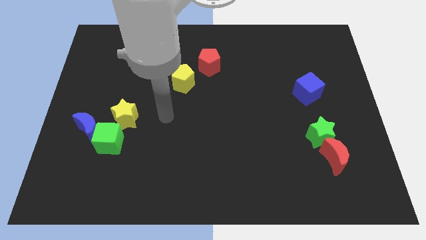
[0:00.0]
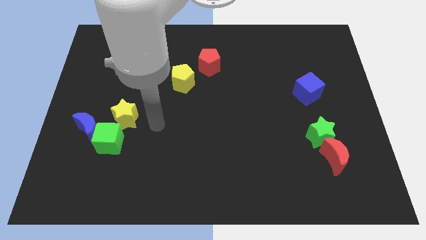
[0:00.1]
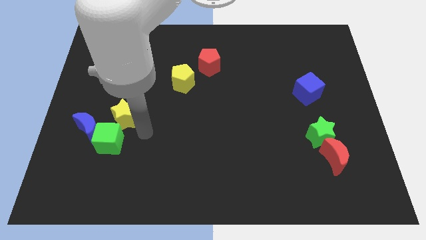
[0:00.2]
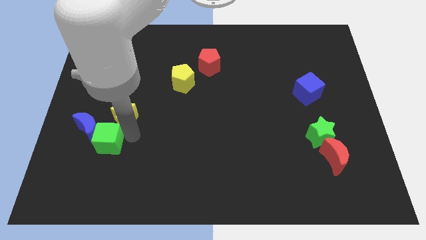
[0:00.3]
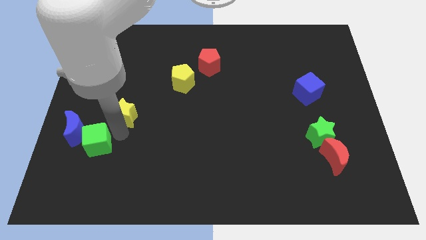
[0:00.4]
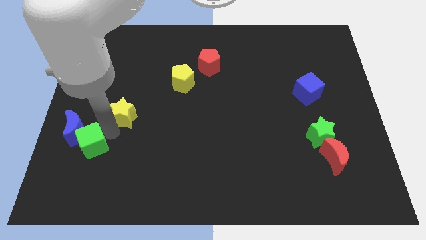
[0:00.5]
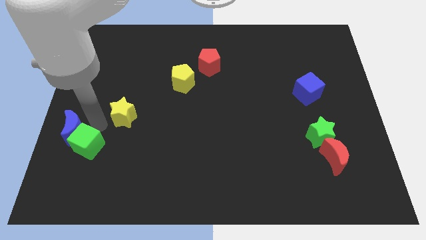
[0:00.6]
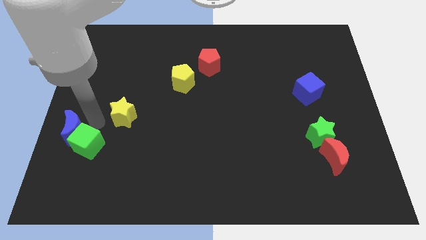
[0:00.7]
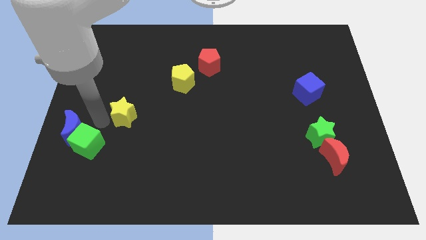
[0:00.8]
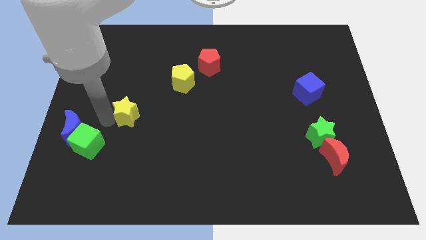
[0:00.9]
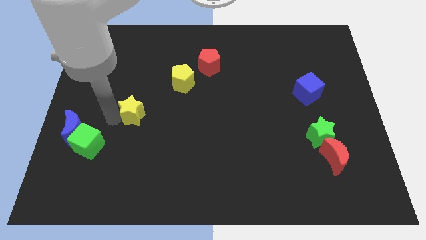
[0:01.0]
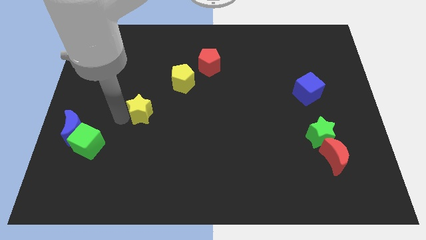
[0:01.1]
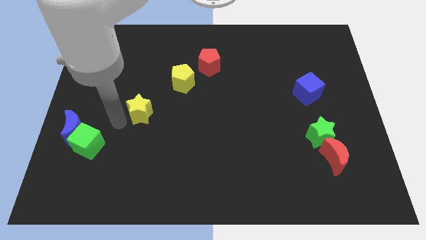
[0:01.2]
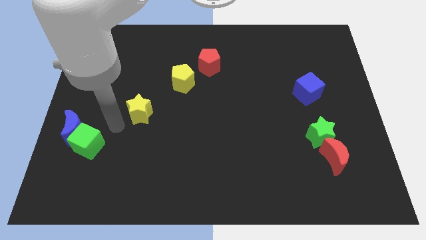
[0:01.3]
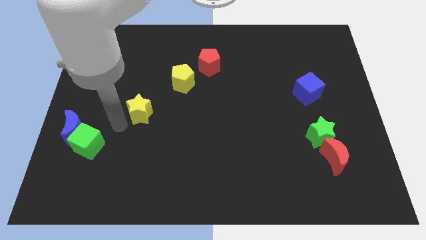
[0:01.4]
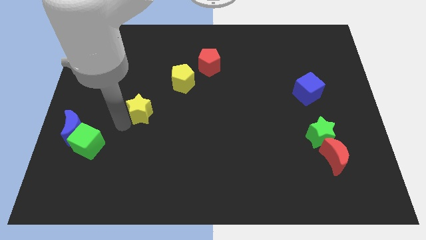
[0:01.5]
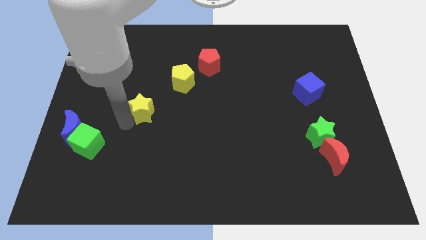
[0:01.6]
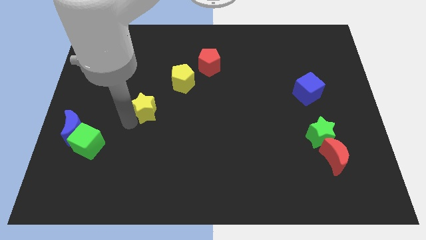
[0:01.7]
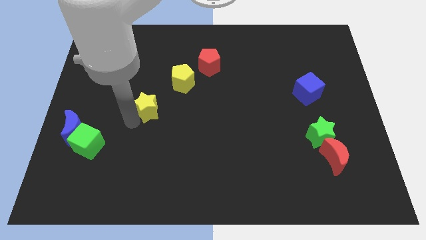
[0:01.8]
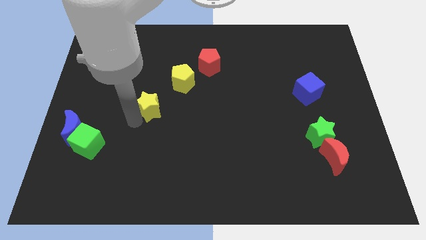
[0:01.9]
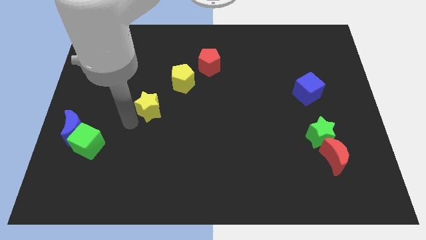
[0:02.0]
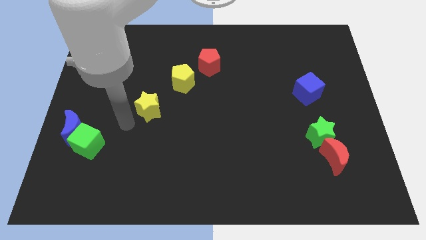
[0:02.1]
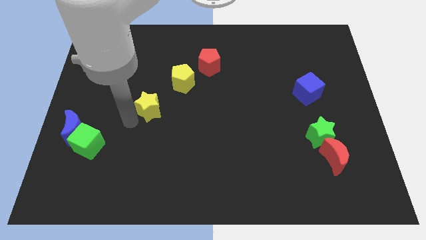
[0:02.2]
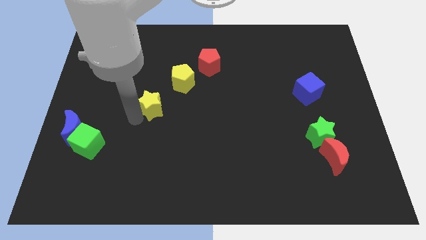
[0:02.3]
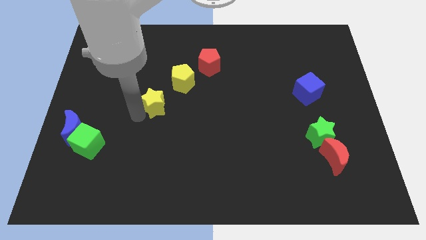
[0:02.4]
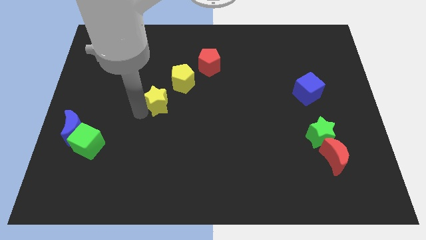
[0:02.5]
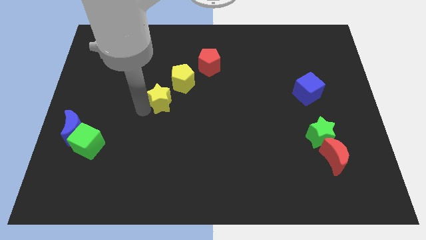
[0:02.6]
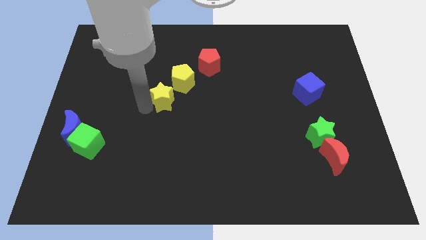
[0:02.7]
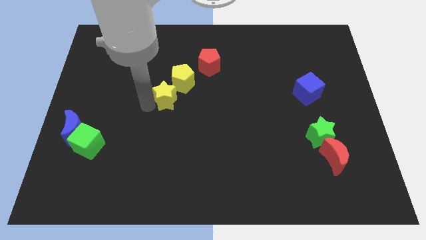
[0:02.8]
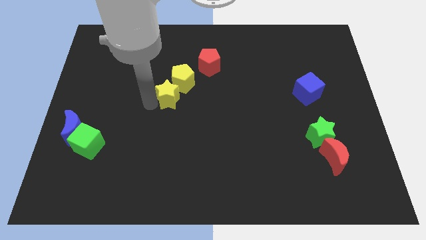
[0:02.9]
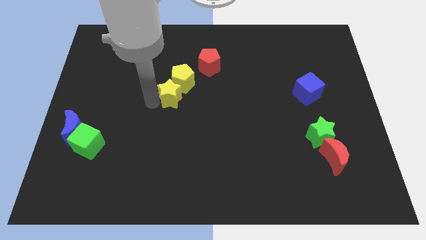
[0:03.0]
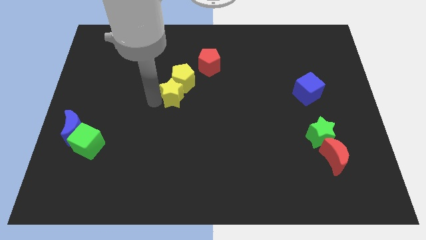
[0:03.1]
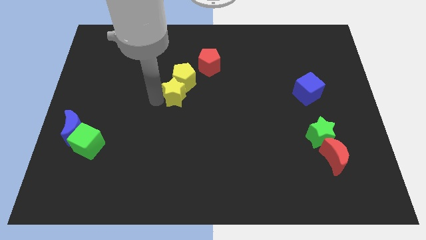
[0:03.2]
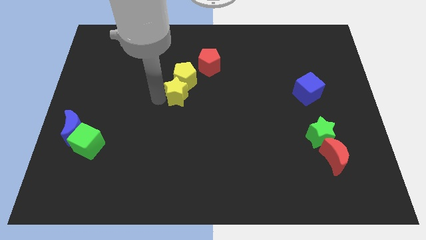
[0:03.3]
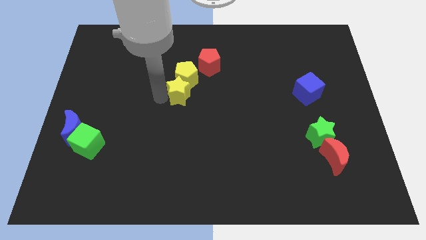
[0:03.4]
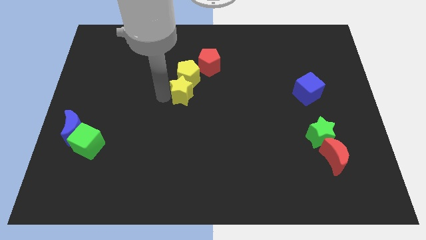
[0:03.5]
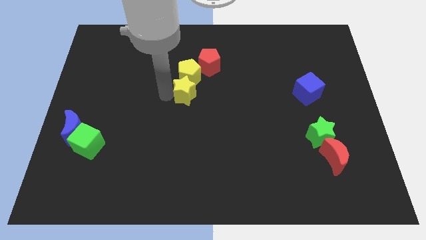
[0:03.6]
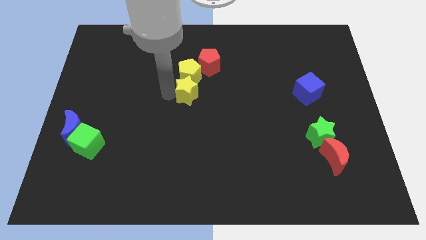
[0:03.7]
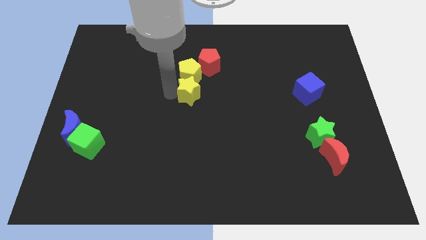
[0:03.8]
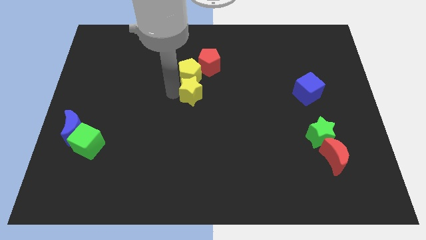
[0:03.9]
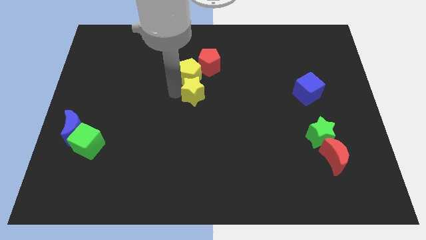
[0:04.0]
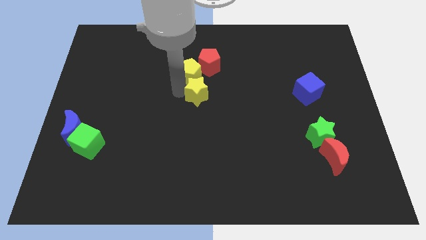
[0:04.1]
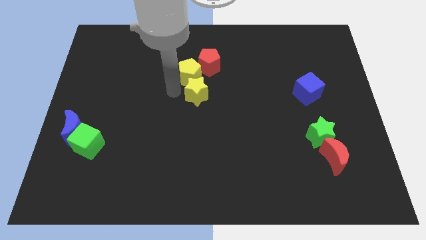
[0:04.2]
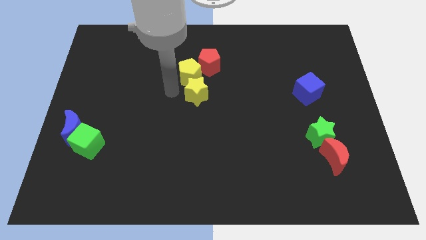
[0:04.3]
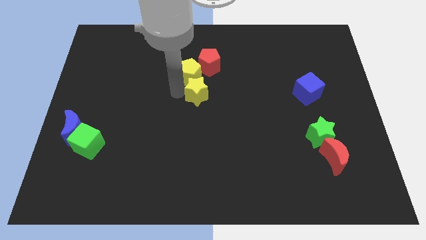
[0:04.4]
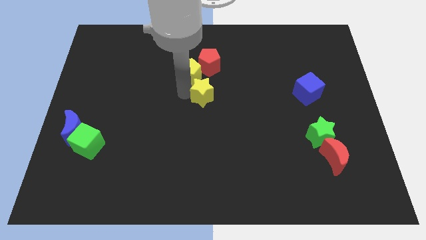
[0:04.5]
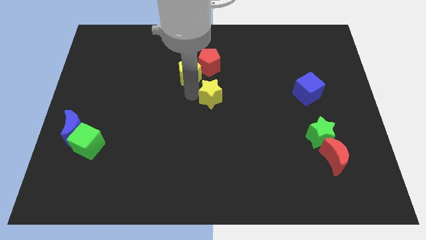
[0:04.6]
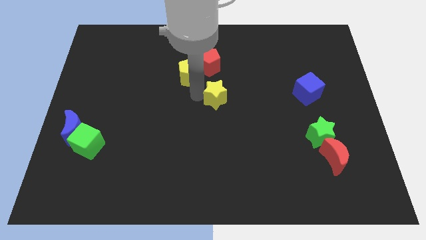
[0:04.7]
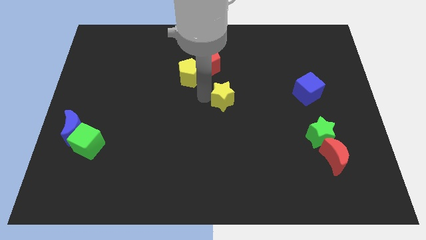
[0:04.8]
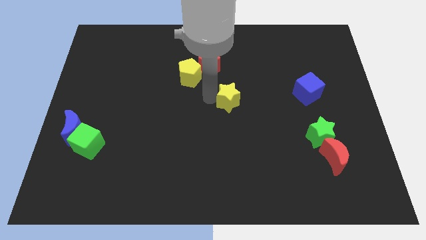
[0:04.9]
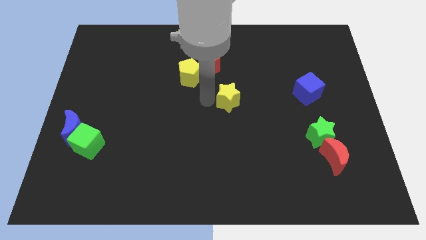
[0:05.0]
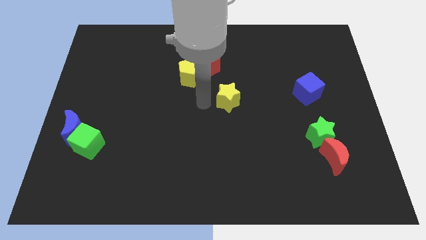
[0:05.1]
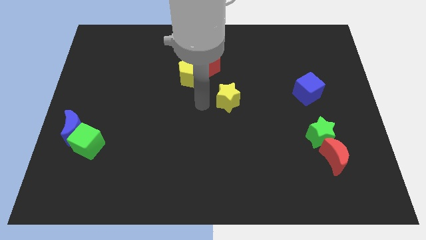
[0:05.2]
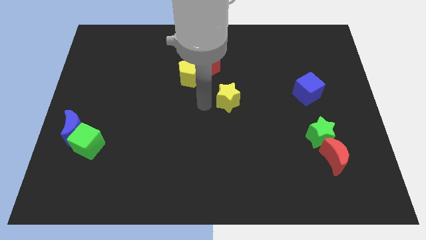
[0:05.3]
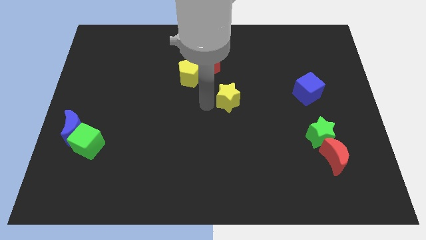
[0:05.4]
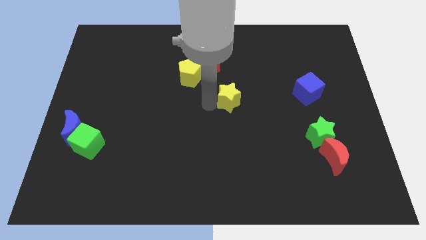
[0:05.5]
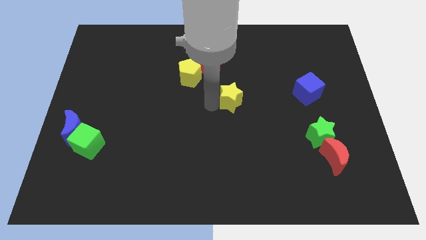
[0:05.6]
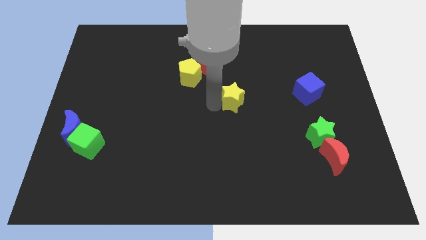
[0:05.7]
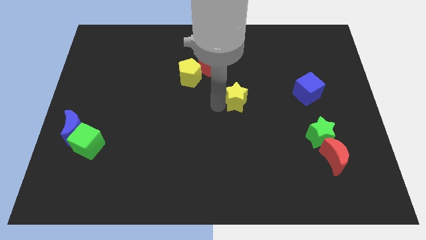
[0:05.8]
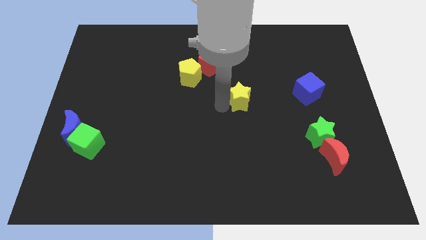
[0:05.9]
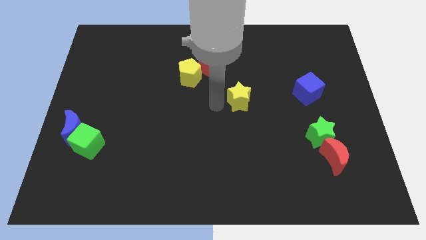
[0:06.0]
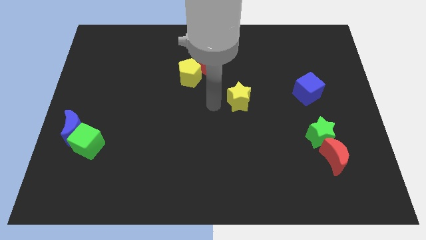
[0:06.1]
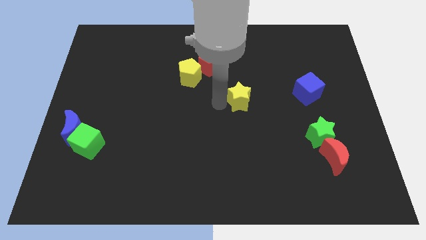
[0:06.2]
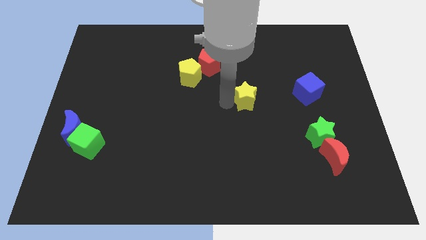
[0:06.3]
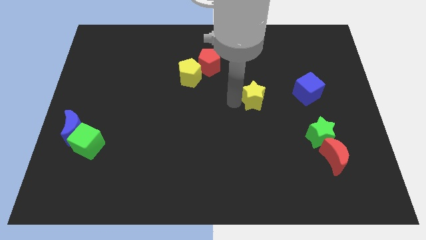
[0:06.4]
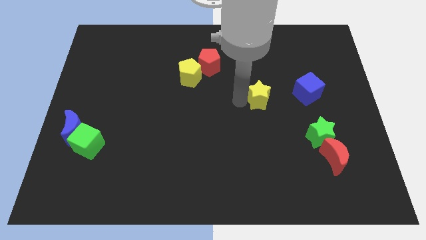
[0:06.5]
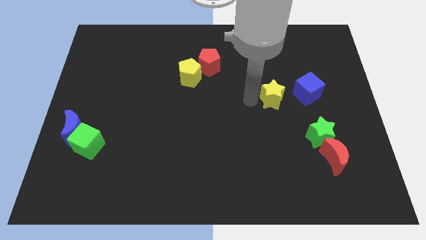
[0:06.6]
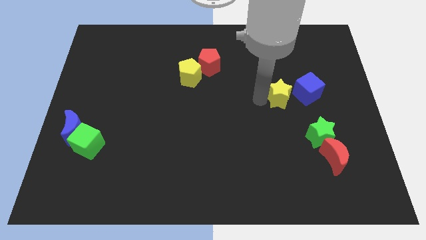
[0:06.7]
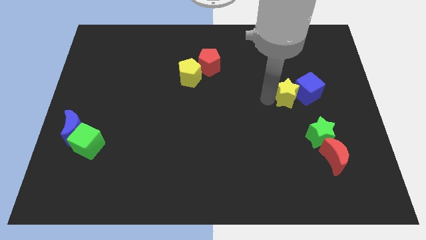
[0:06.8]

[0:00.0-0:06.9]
slide the yellow star close to the blue cube

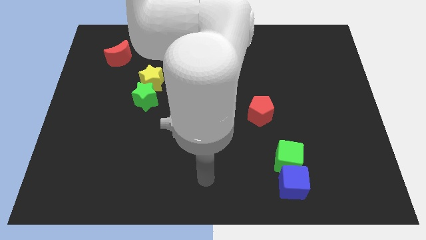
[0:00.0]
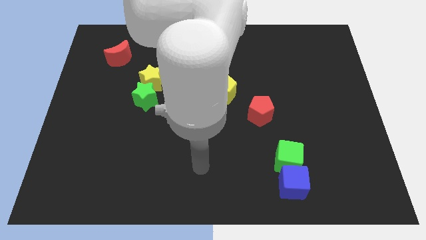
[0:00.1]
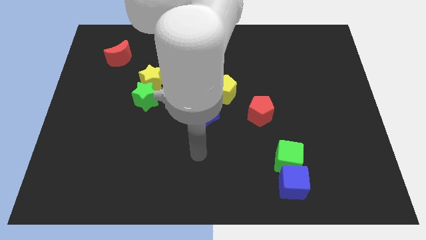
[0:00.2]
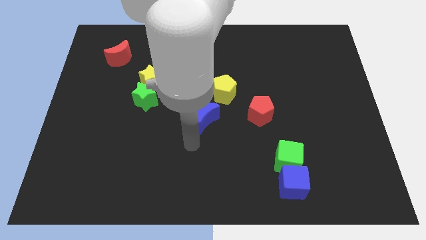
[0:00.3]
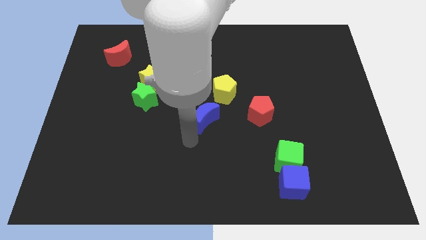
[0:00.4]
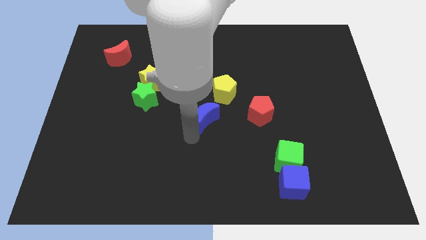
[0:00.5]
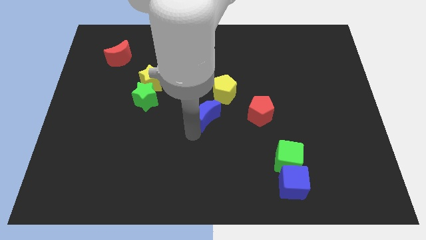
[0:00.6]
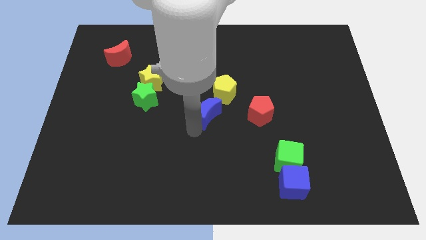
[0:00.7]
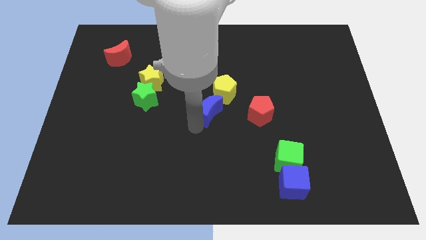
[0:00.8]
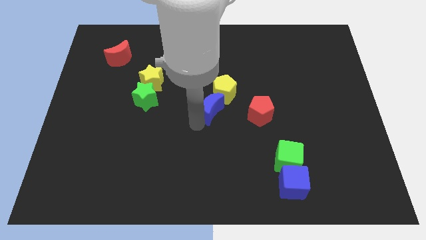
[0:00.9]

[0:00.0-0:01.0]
move the blue moon close to the yellow pentagon
